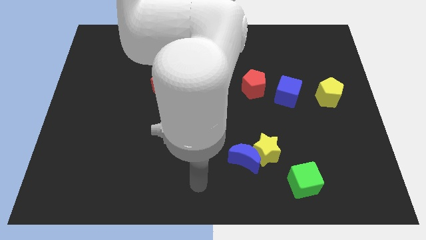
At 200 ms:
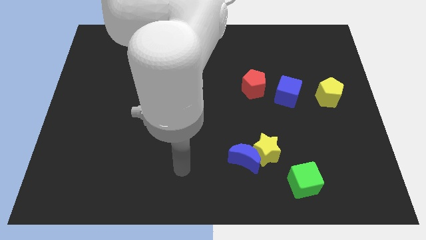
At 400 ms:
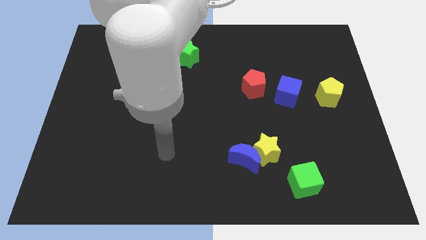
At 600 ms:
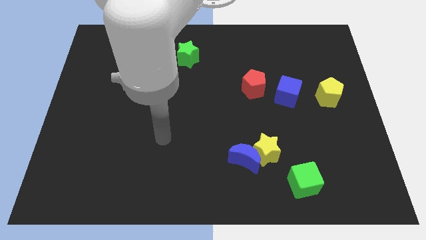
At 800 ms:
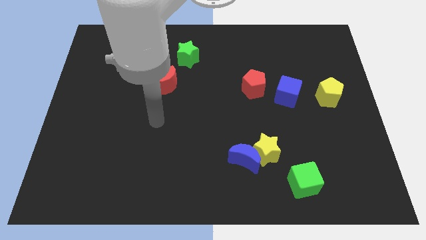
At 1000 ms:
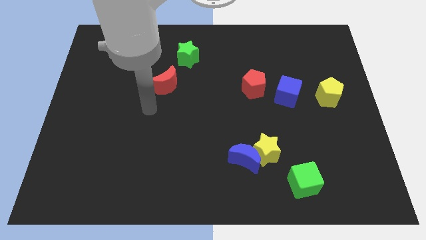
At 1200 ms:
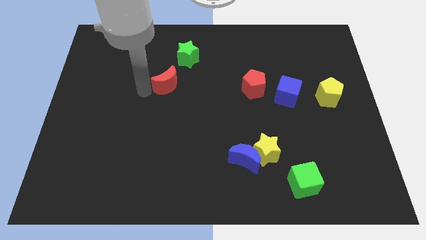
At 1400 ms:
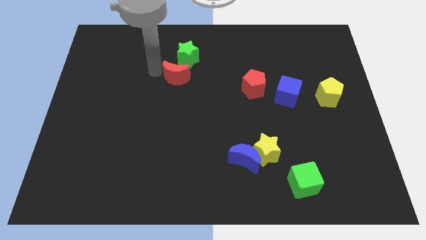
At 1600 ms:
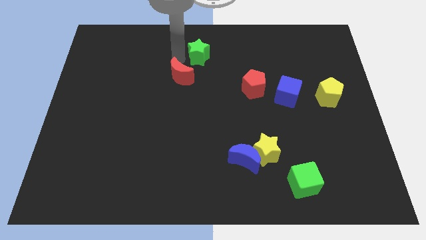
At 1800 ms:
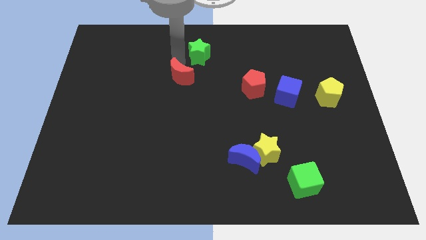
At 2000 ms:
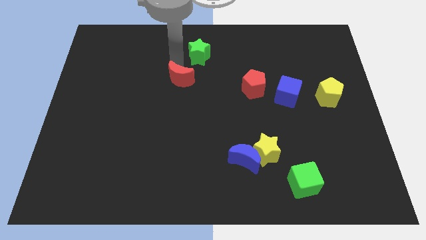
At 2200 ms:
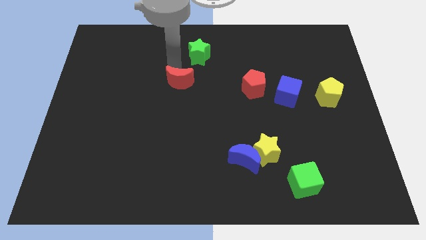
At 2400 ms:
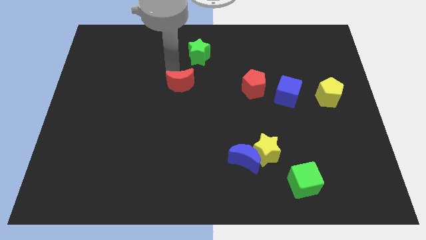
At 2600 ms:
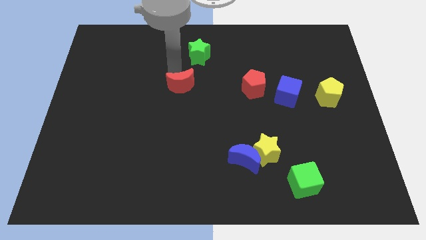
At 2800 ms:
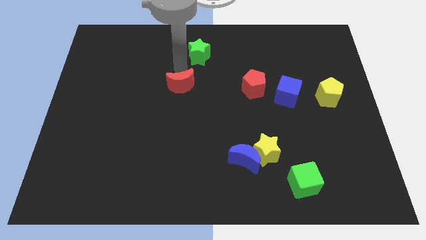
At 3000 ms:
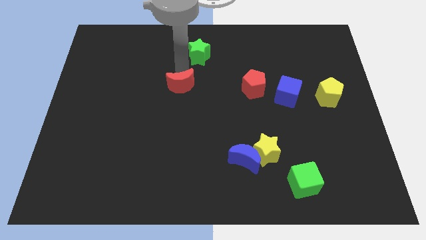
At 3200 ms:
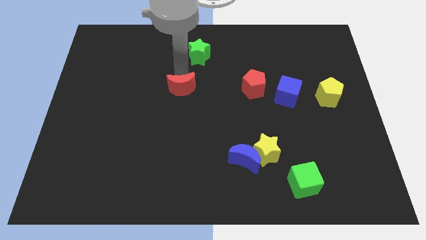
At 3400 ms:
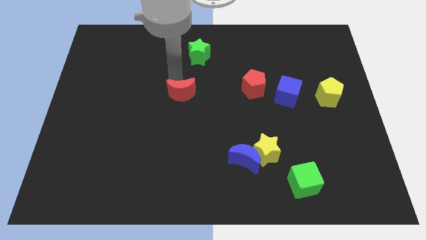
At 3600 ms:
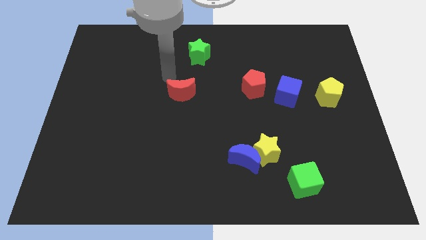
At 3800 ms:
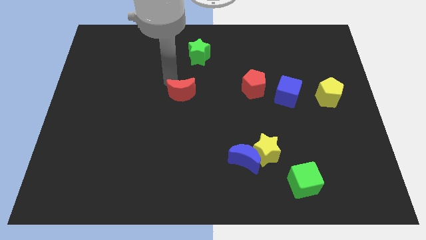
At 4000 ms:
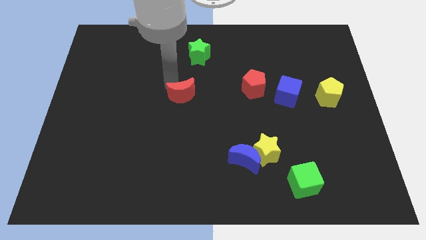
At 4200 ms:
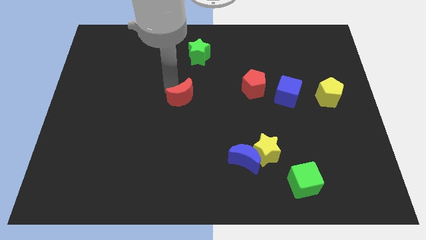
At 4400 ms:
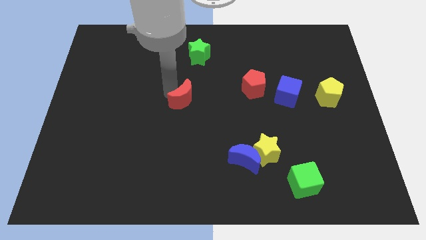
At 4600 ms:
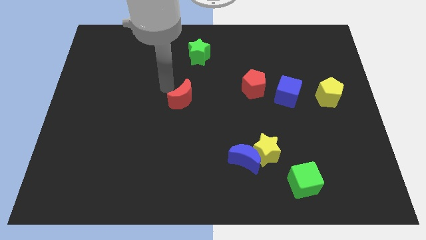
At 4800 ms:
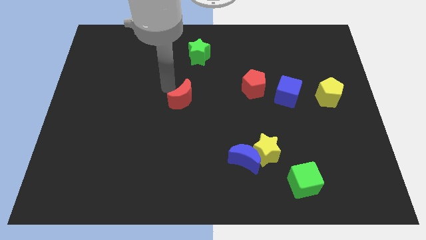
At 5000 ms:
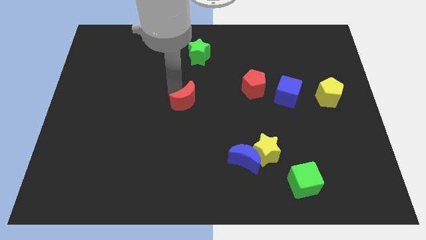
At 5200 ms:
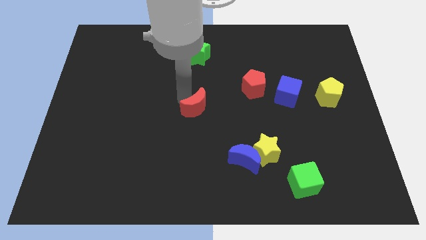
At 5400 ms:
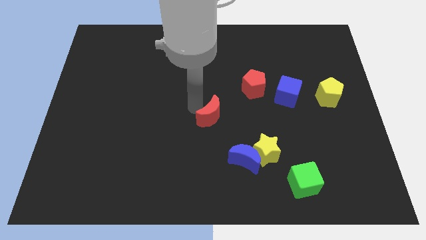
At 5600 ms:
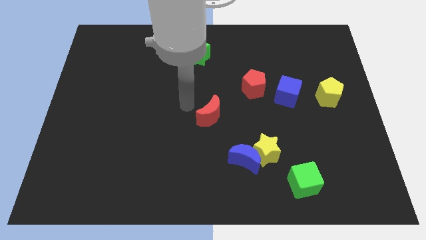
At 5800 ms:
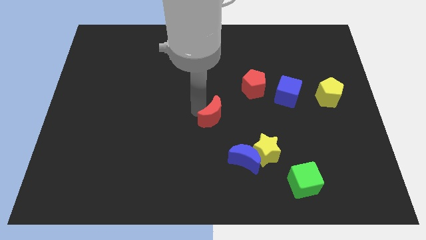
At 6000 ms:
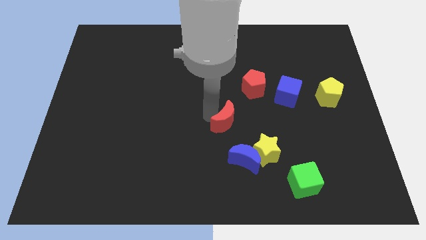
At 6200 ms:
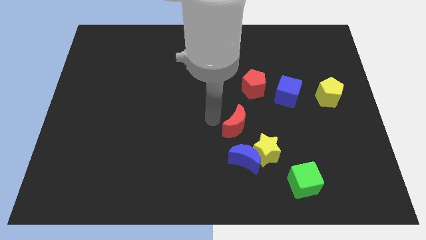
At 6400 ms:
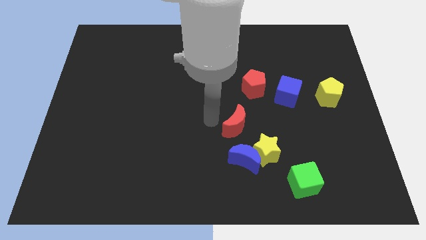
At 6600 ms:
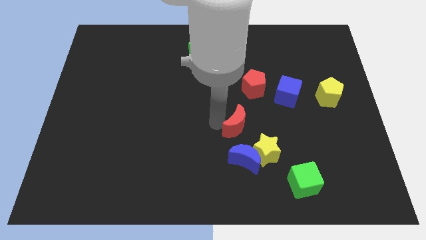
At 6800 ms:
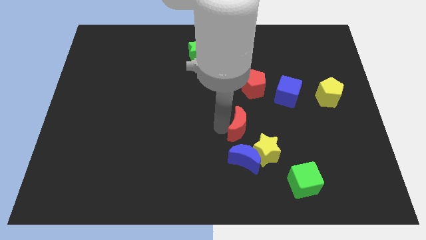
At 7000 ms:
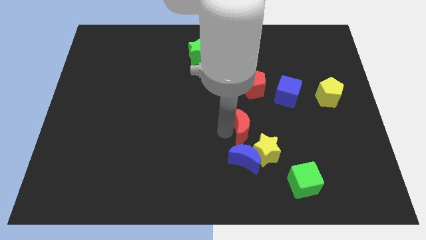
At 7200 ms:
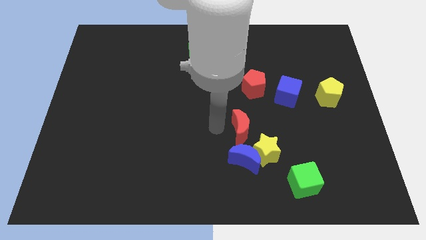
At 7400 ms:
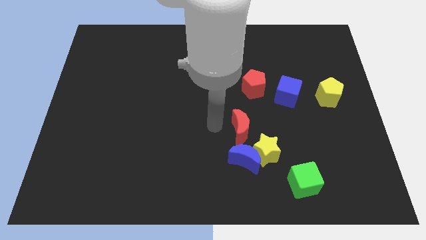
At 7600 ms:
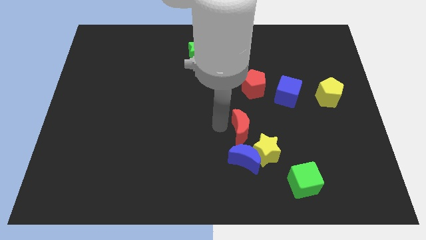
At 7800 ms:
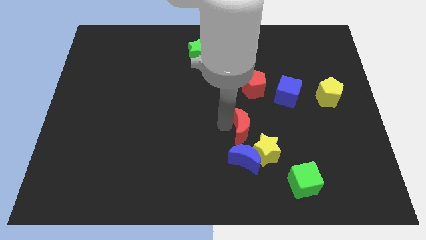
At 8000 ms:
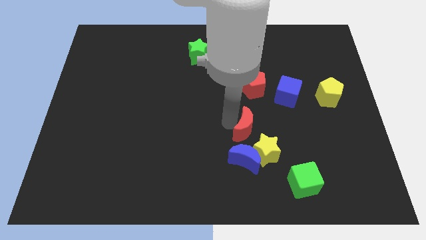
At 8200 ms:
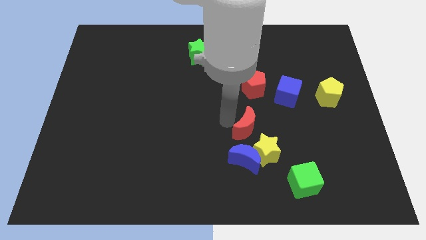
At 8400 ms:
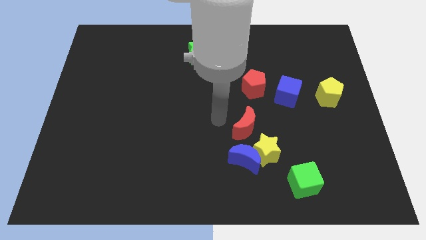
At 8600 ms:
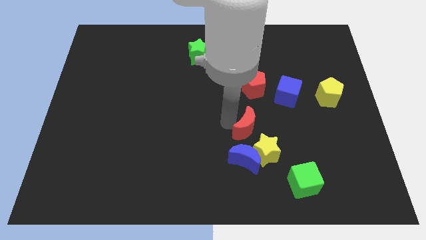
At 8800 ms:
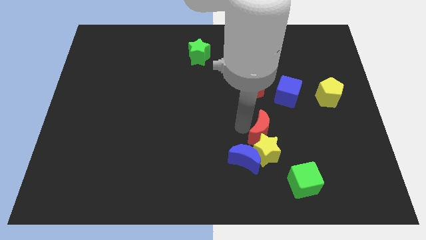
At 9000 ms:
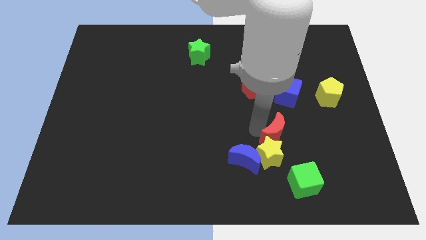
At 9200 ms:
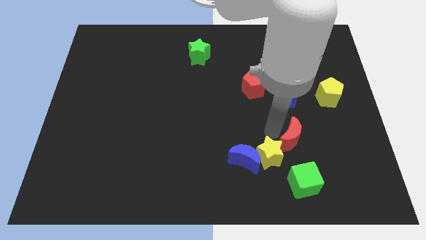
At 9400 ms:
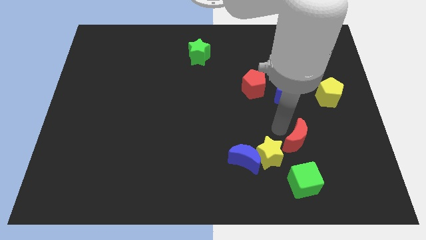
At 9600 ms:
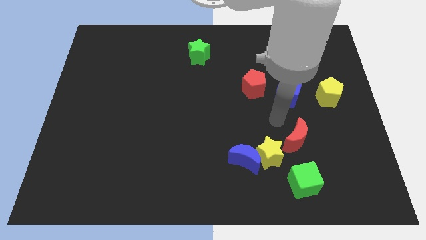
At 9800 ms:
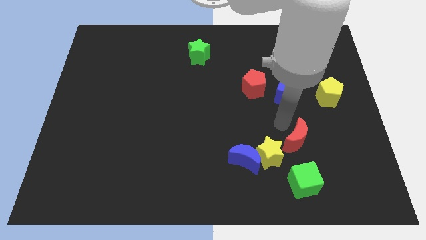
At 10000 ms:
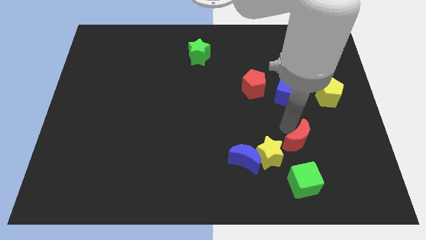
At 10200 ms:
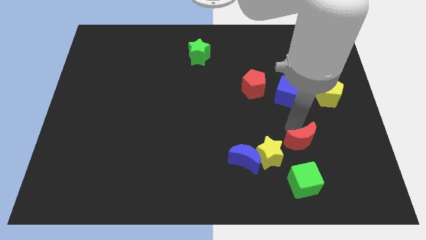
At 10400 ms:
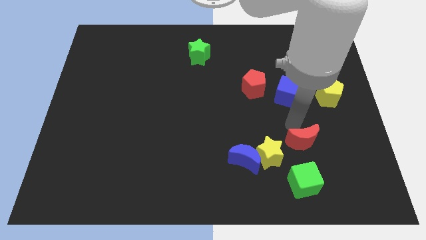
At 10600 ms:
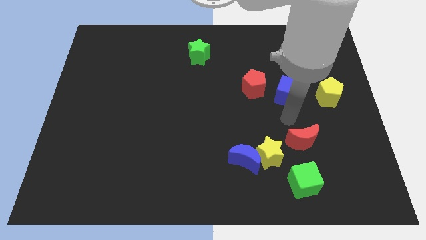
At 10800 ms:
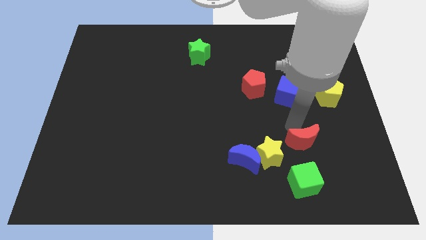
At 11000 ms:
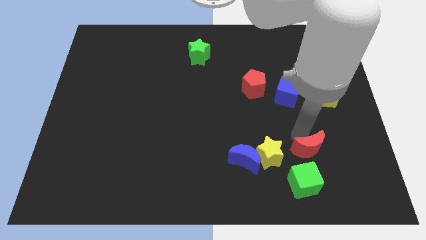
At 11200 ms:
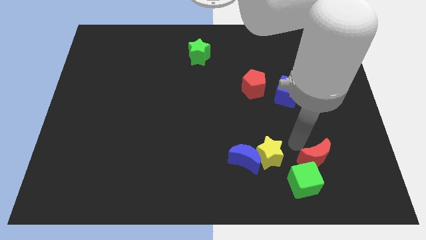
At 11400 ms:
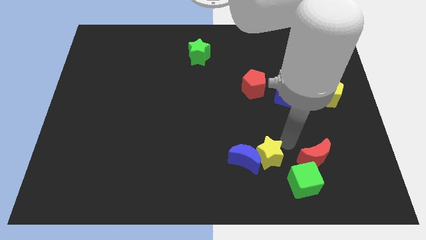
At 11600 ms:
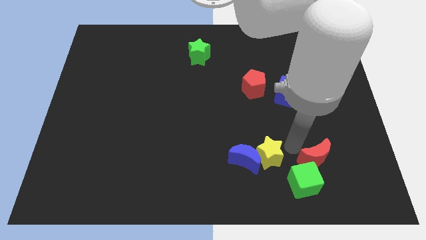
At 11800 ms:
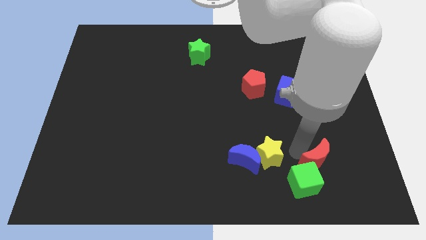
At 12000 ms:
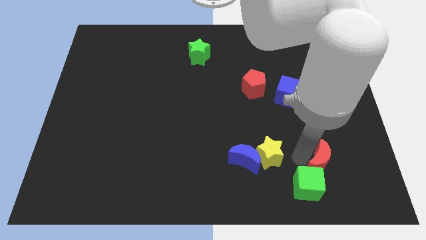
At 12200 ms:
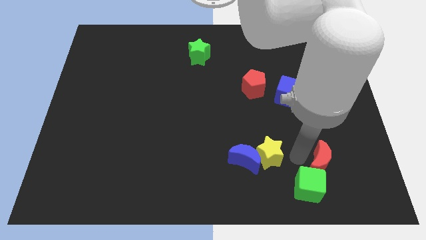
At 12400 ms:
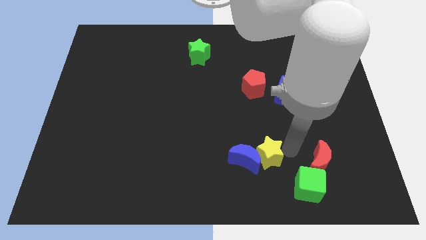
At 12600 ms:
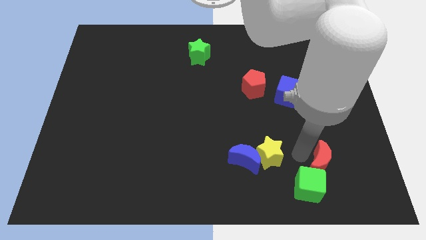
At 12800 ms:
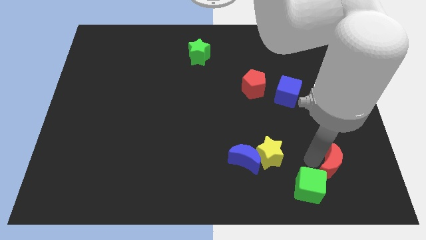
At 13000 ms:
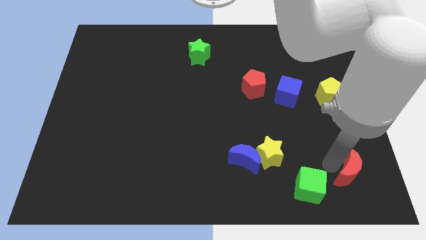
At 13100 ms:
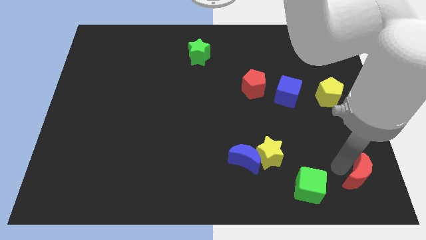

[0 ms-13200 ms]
push the red moon to the bottom right

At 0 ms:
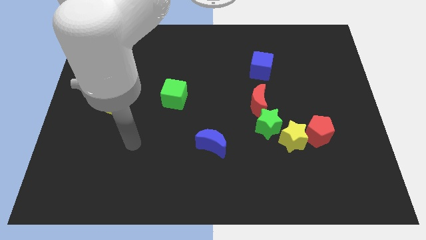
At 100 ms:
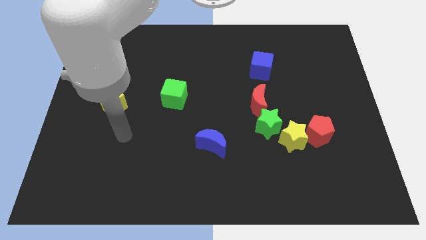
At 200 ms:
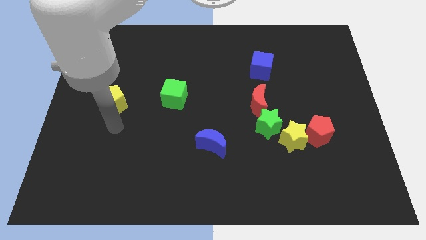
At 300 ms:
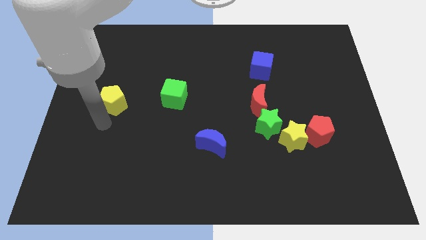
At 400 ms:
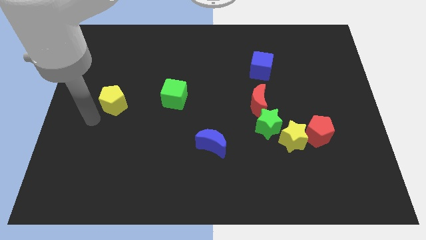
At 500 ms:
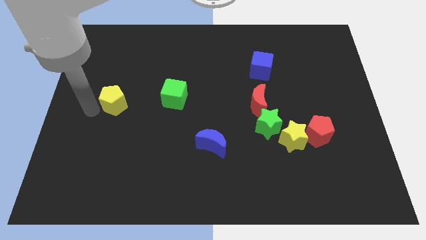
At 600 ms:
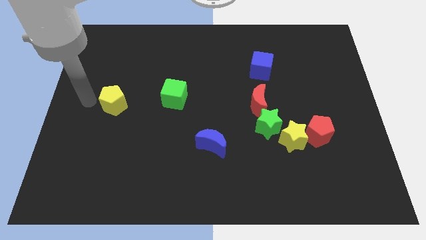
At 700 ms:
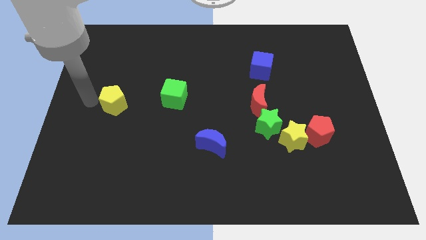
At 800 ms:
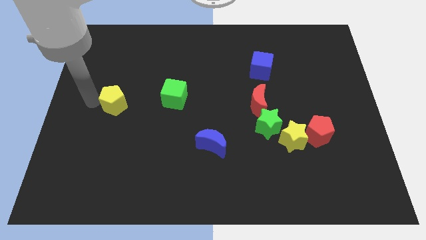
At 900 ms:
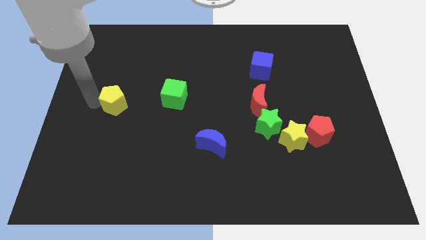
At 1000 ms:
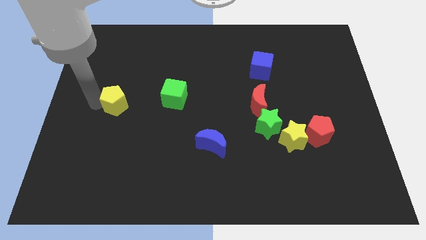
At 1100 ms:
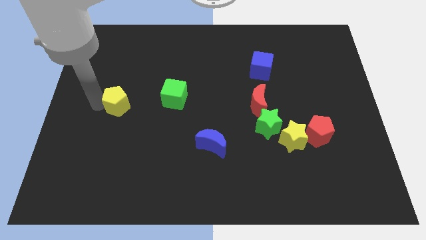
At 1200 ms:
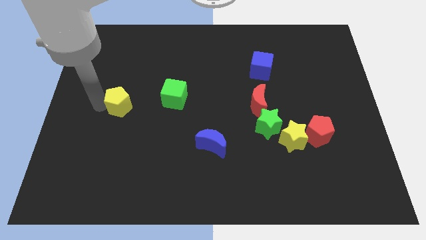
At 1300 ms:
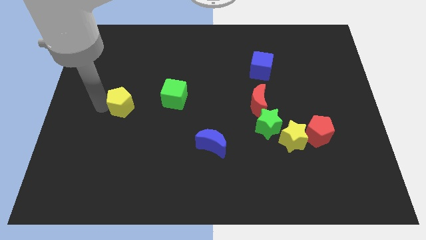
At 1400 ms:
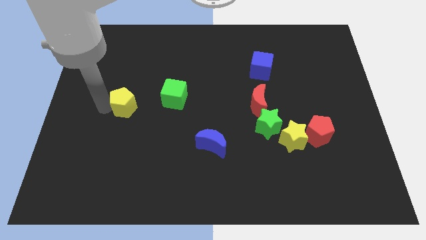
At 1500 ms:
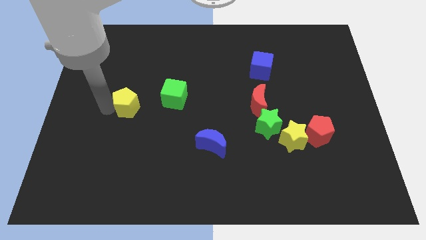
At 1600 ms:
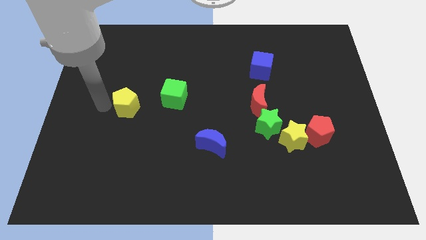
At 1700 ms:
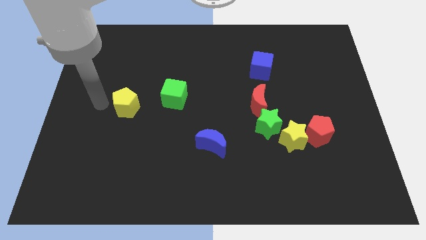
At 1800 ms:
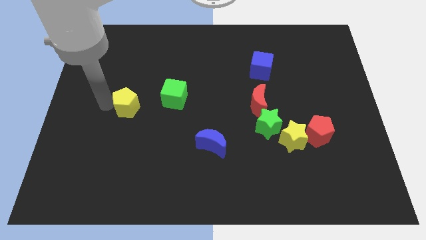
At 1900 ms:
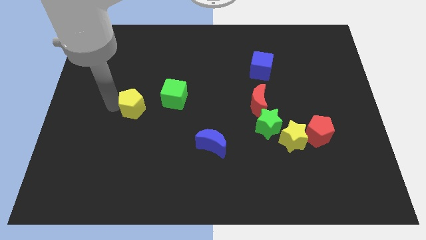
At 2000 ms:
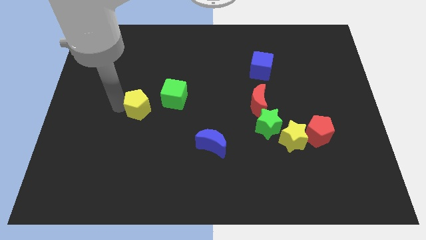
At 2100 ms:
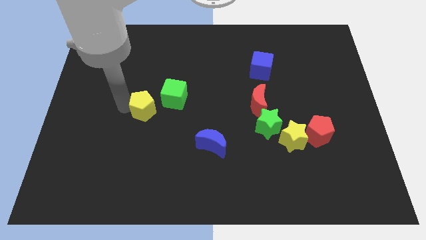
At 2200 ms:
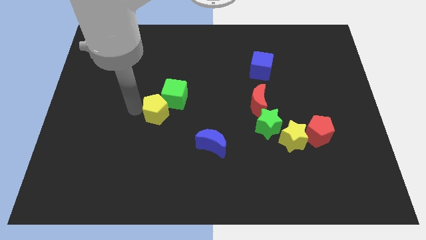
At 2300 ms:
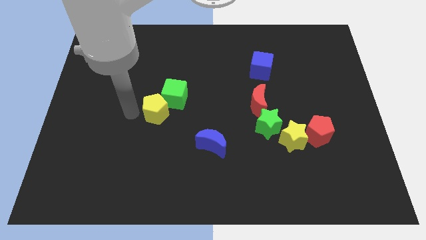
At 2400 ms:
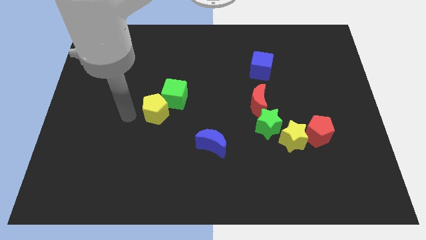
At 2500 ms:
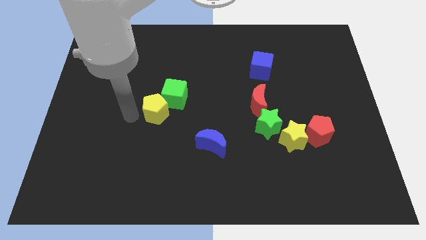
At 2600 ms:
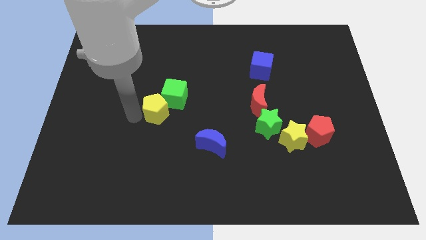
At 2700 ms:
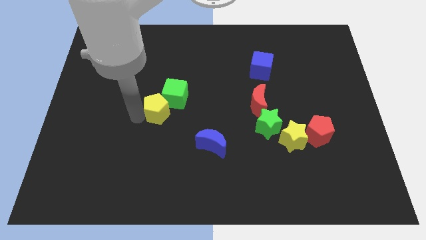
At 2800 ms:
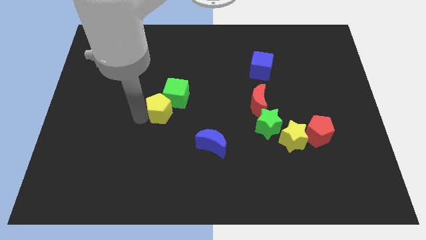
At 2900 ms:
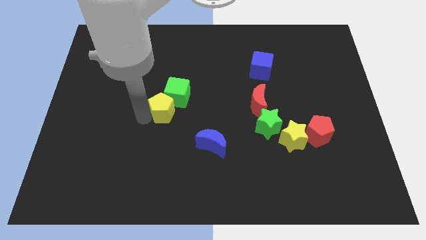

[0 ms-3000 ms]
put the yellow pentagon to the middle of the board
